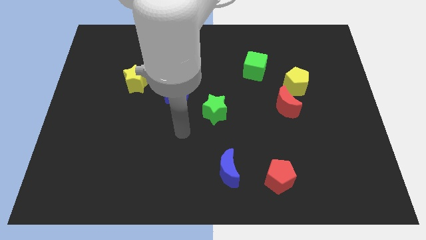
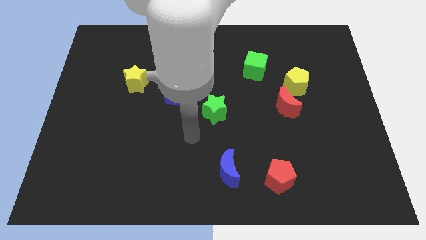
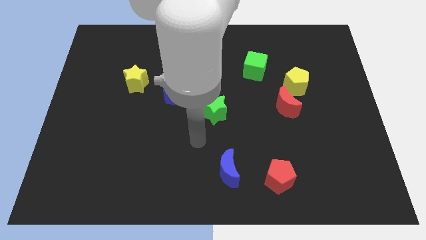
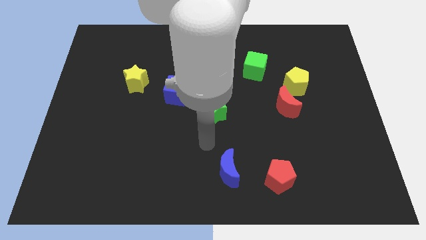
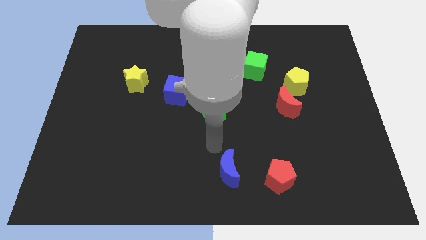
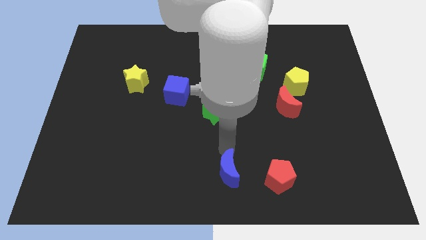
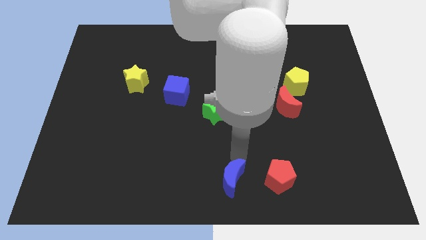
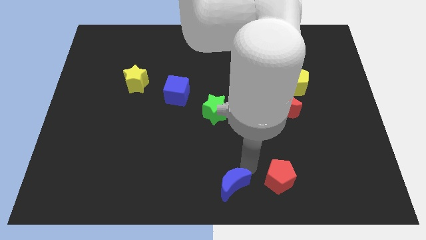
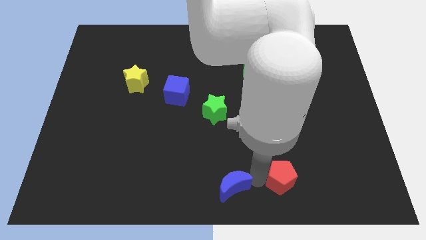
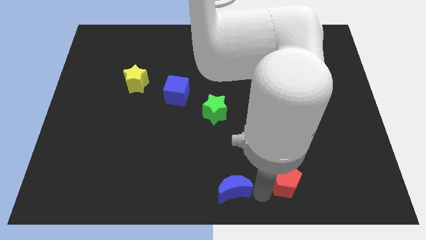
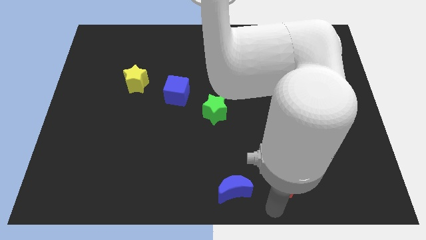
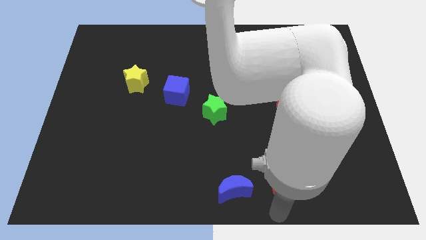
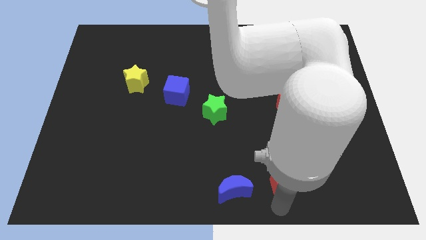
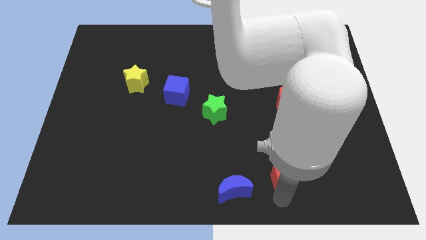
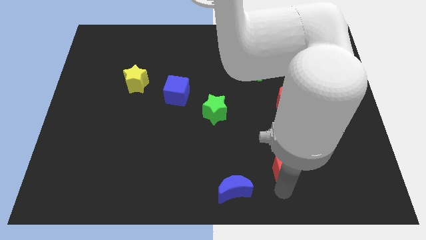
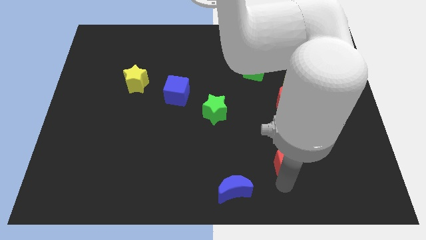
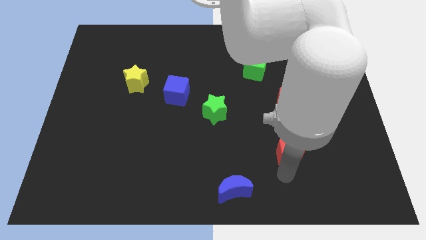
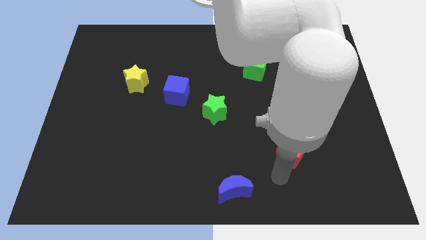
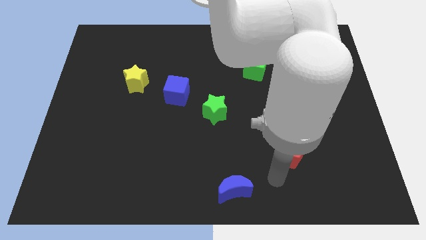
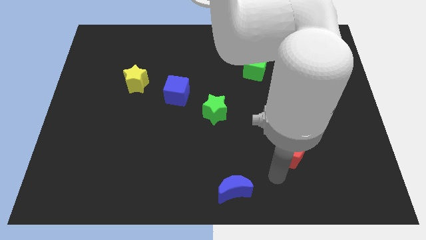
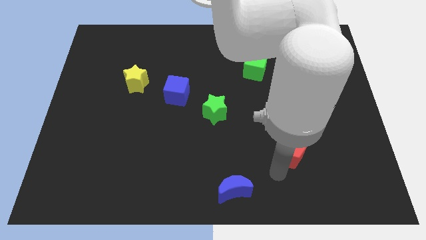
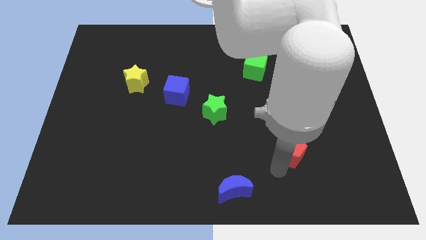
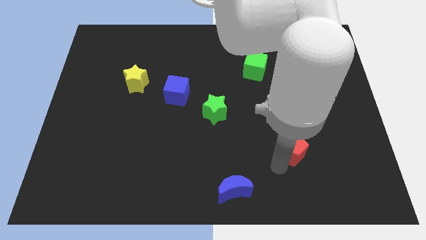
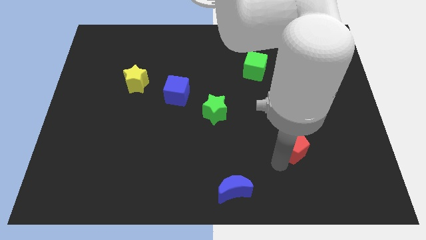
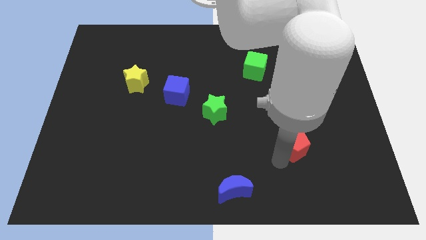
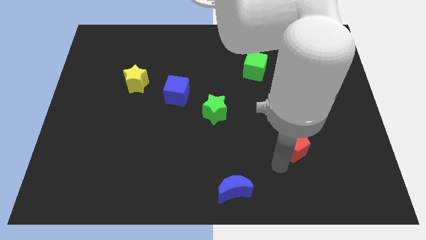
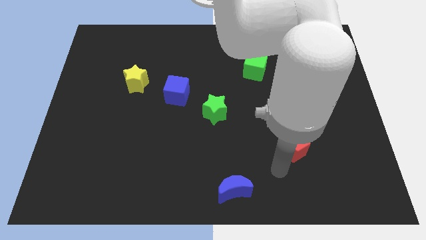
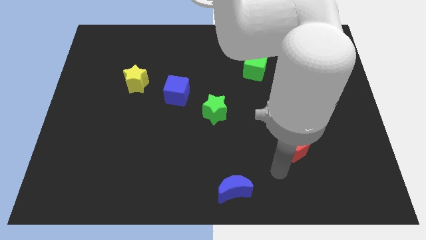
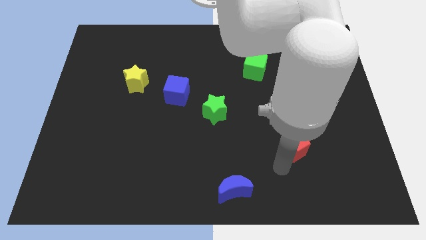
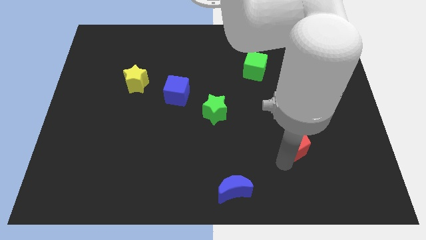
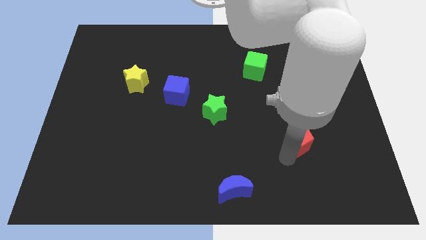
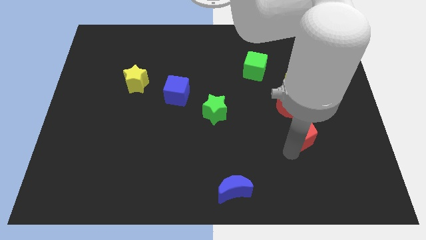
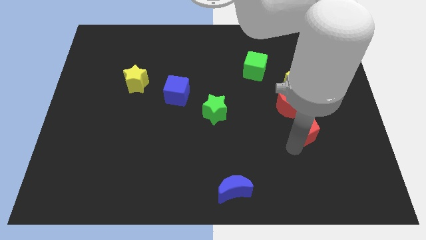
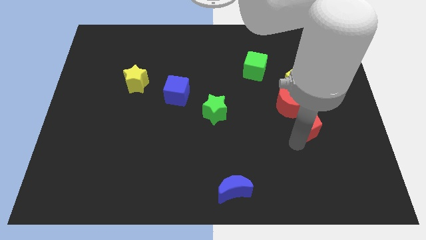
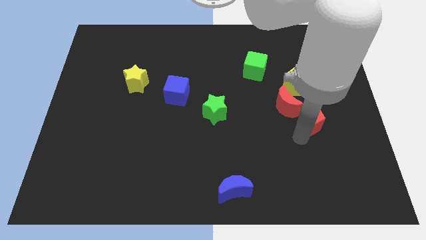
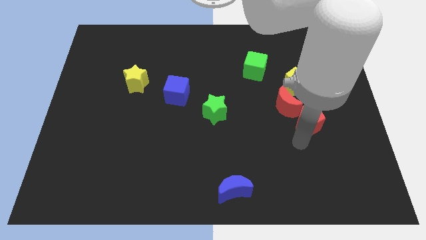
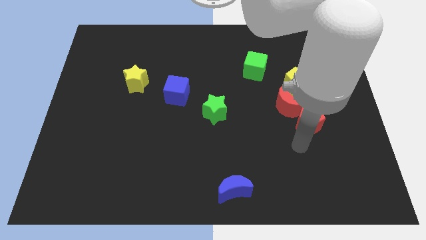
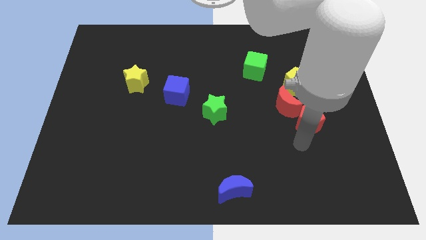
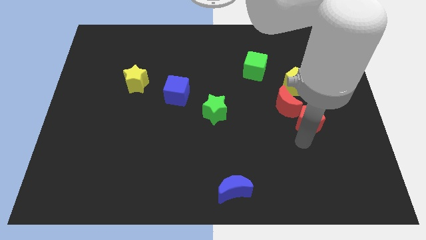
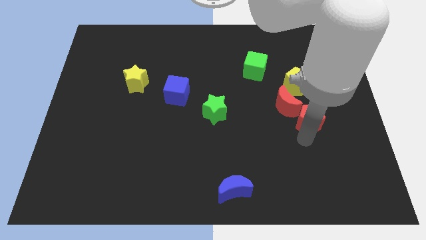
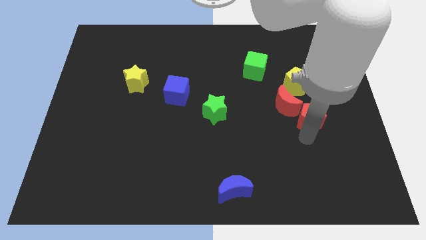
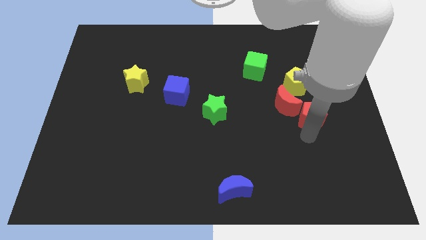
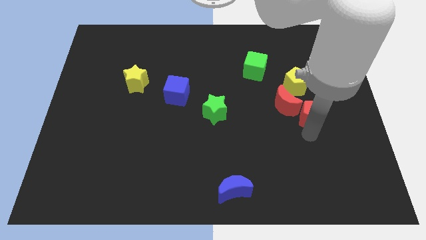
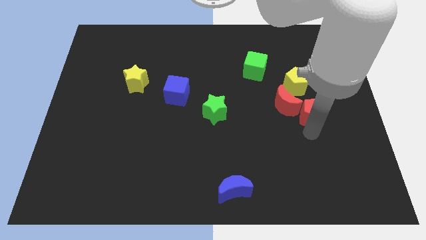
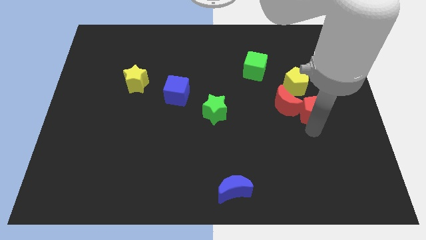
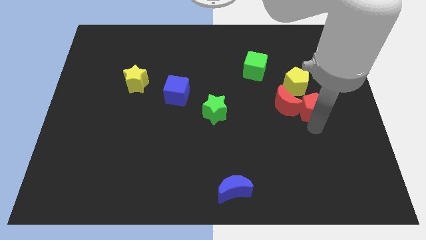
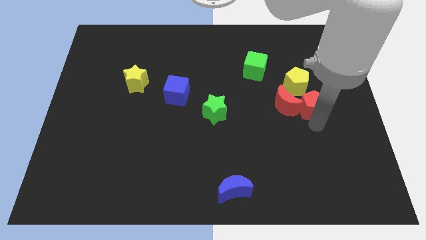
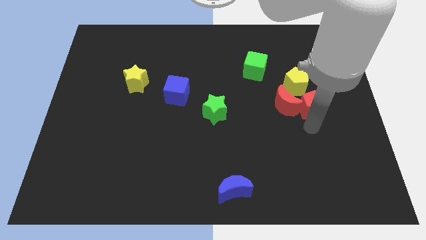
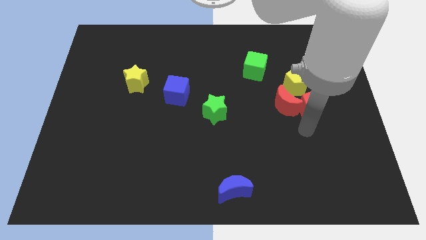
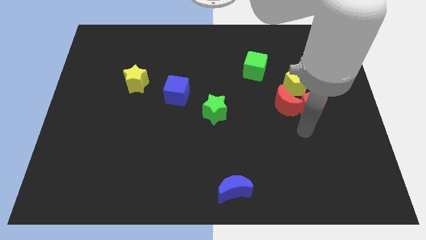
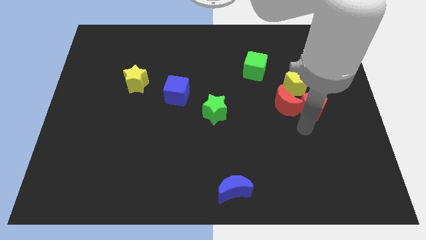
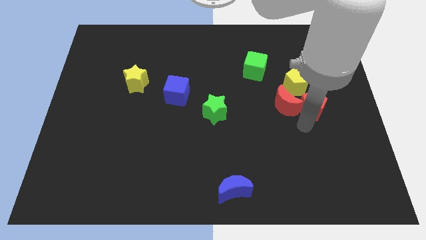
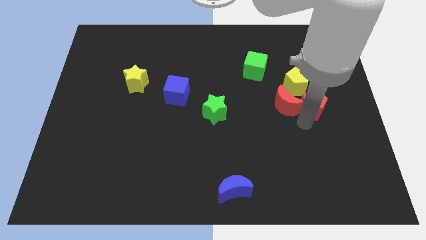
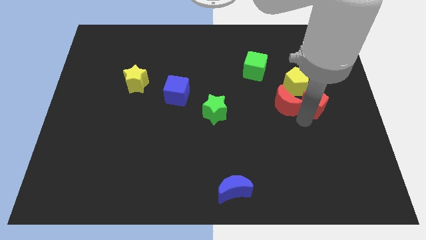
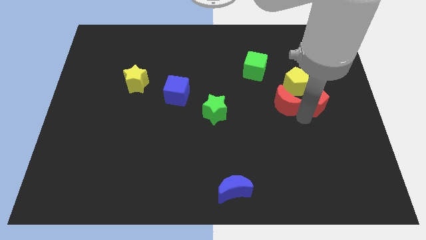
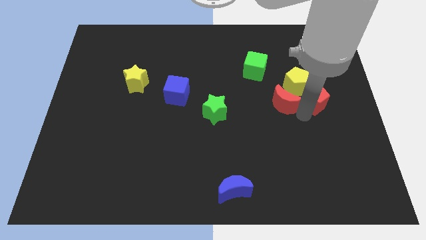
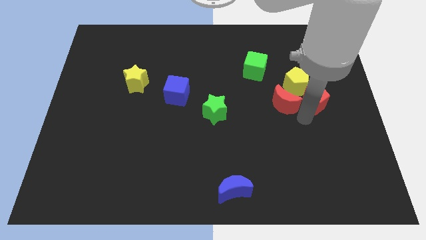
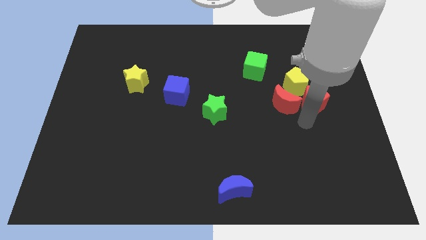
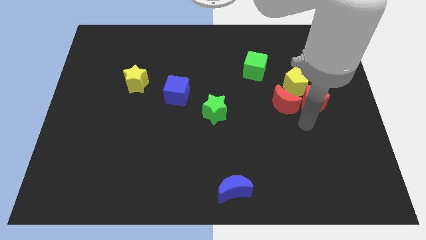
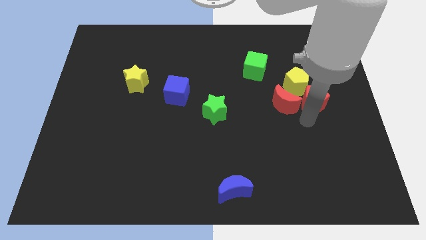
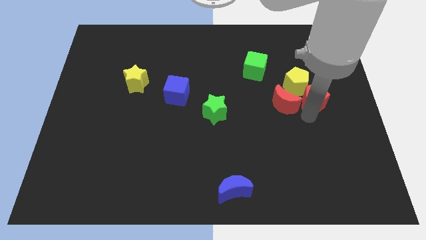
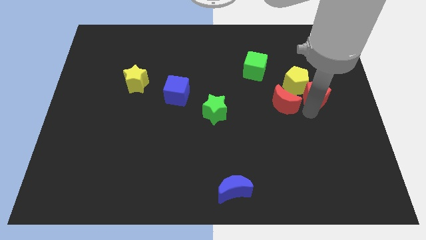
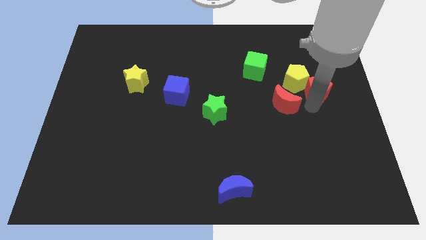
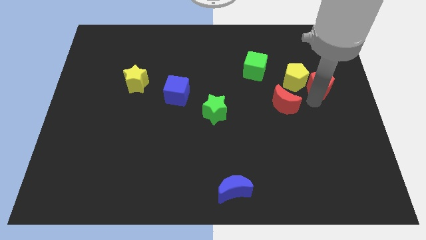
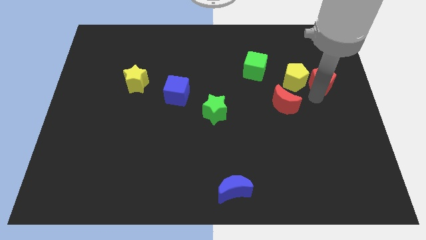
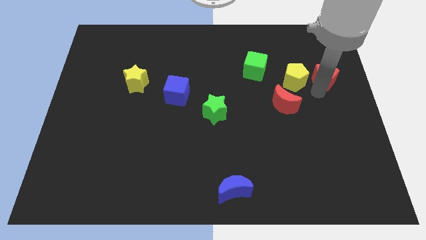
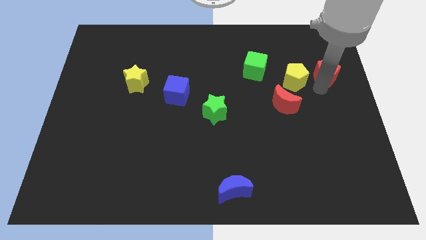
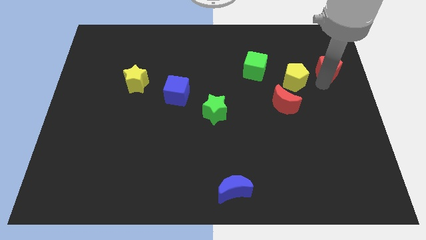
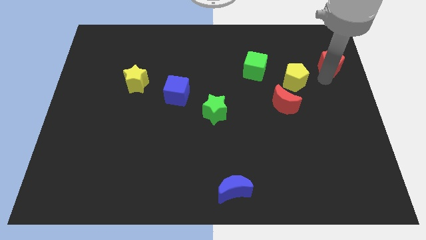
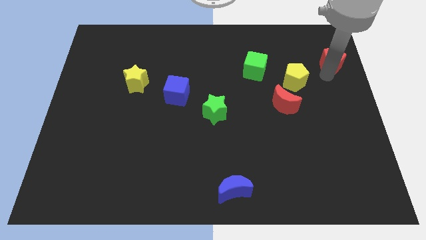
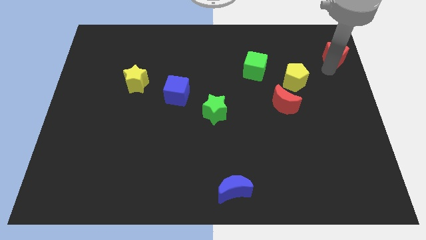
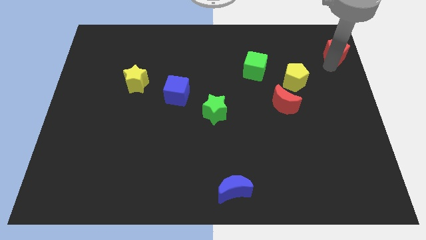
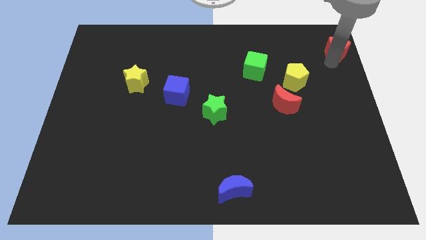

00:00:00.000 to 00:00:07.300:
push the red pentagon to the top right corner

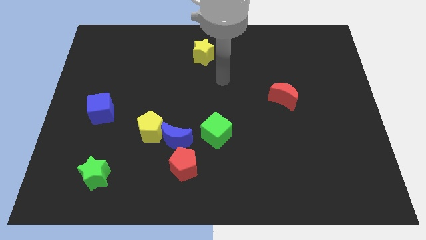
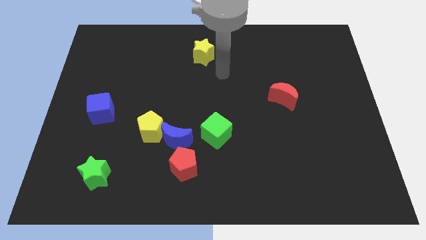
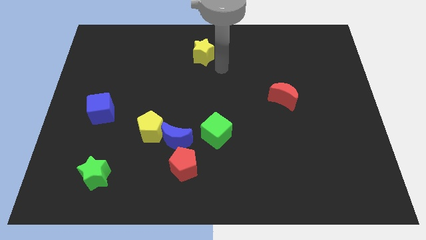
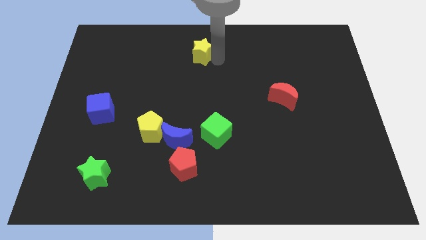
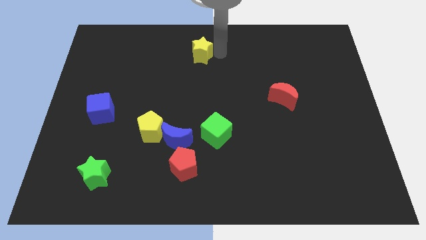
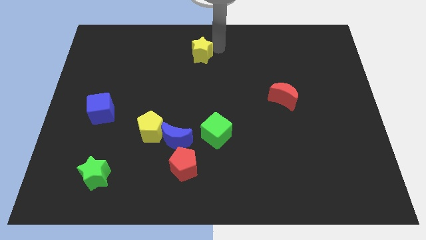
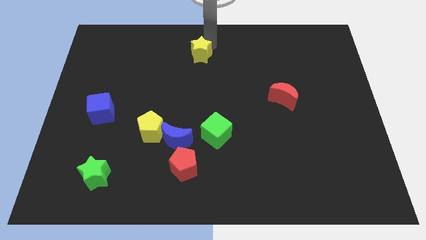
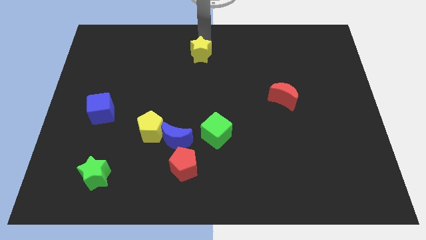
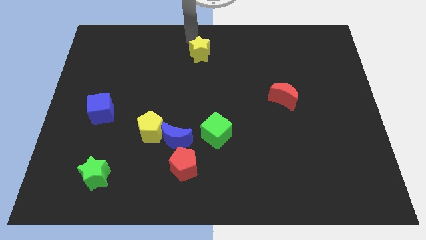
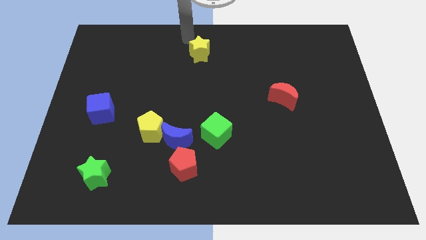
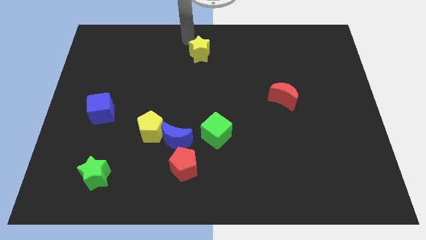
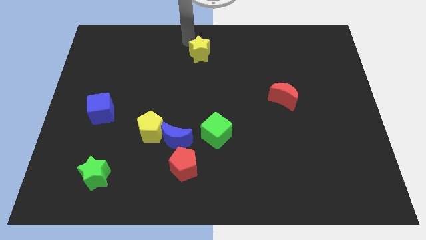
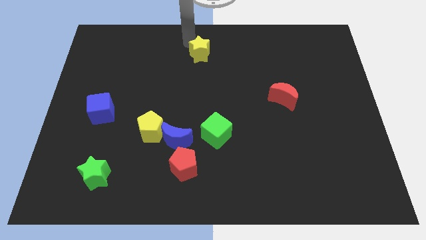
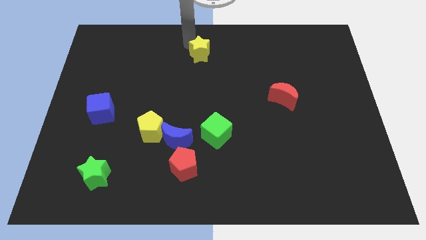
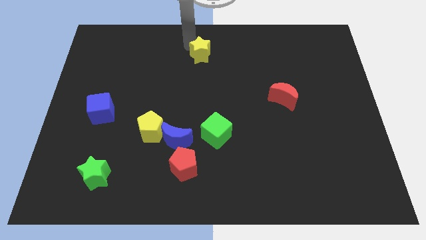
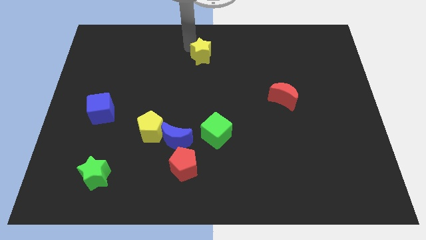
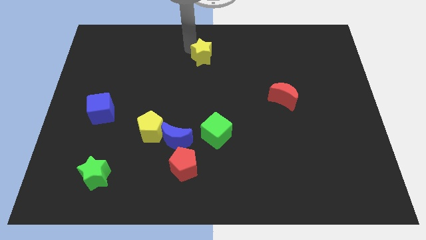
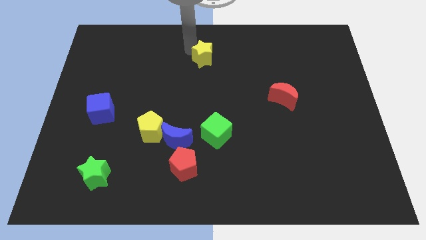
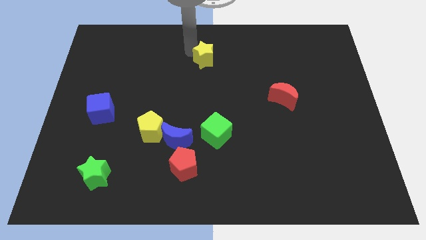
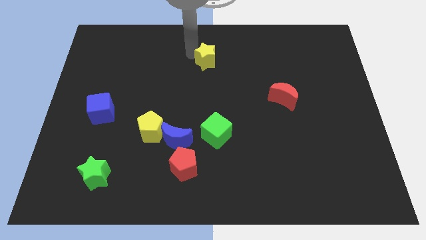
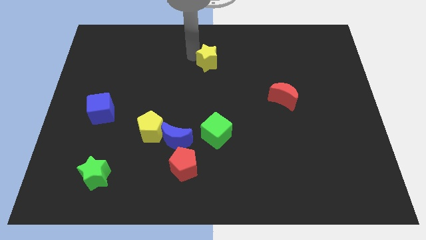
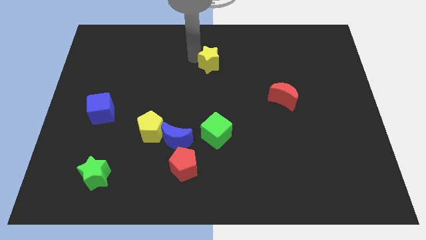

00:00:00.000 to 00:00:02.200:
move the yellow star to the middle of the board
